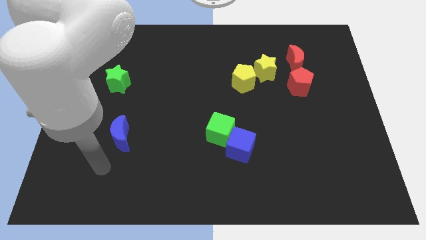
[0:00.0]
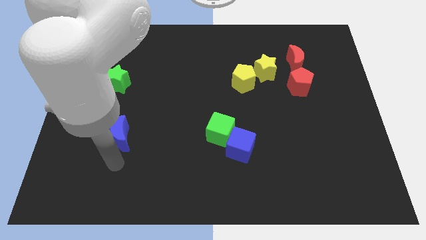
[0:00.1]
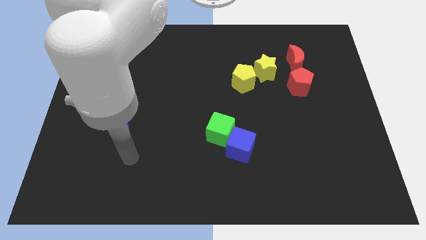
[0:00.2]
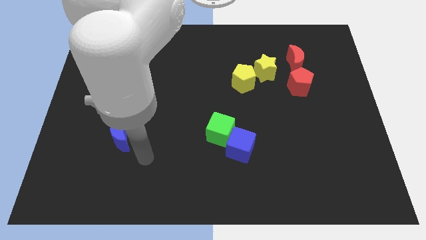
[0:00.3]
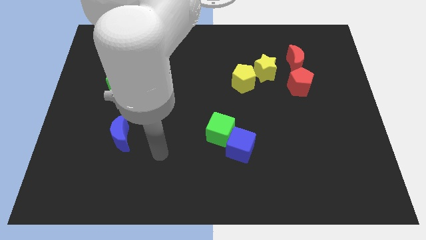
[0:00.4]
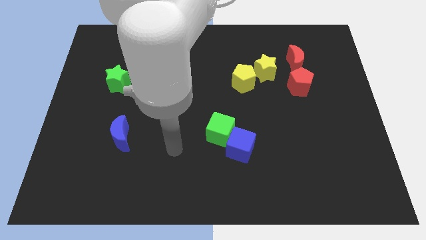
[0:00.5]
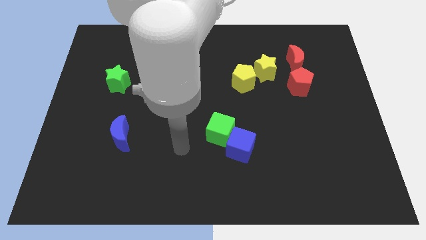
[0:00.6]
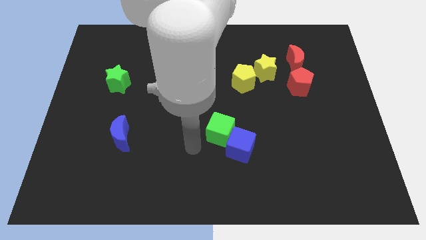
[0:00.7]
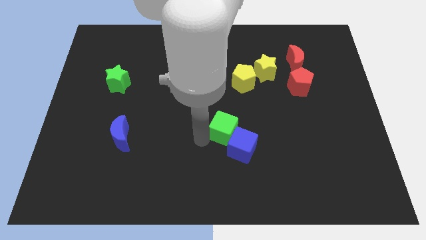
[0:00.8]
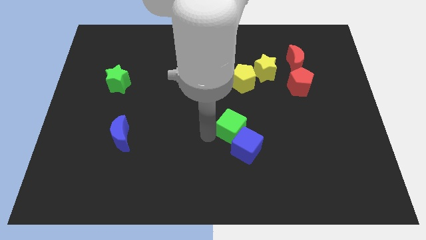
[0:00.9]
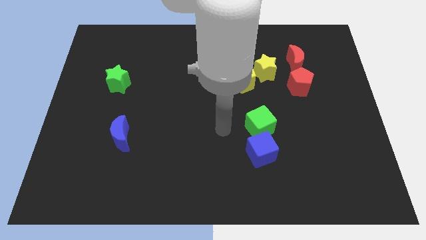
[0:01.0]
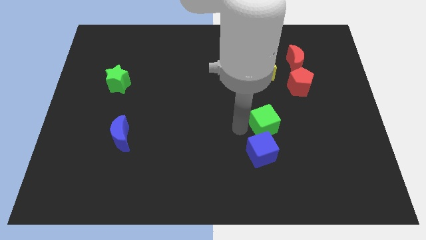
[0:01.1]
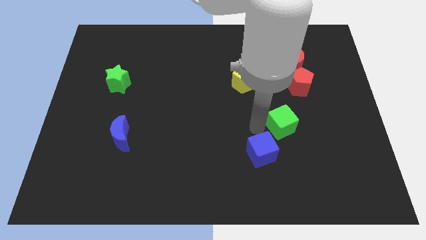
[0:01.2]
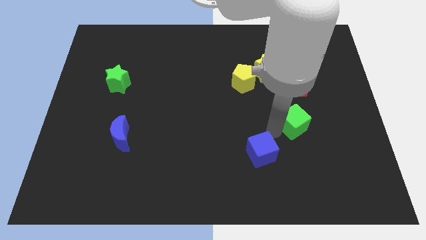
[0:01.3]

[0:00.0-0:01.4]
move the blue cube away from the green cube

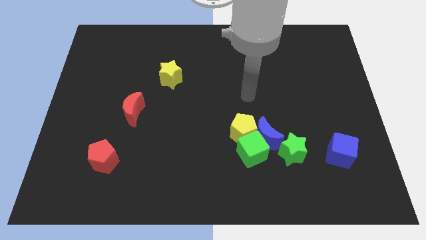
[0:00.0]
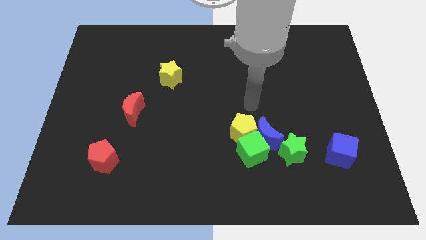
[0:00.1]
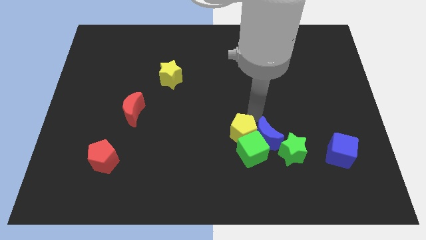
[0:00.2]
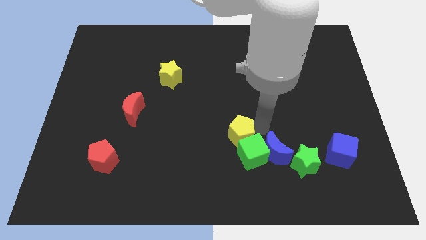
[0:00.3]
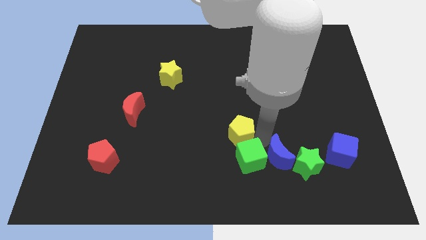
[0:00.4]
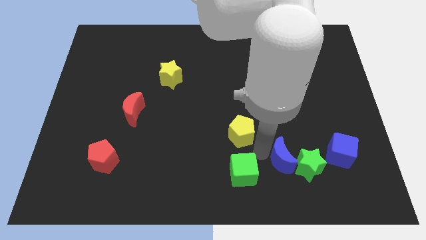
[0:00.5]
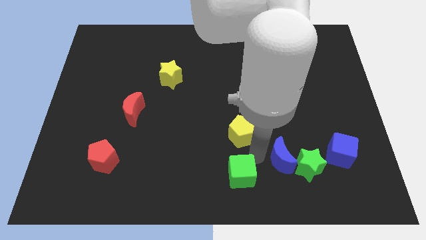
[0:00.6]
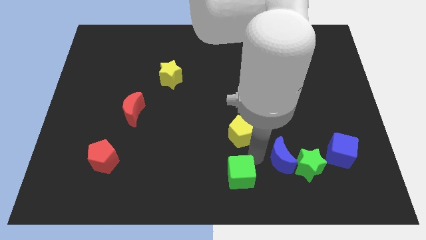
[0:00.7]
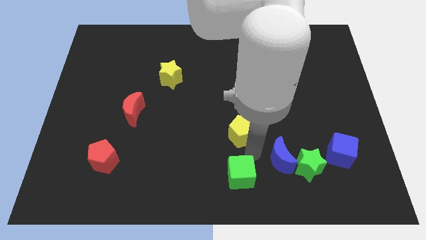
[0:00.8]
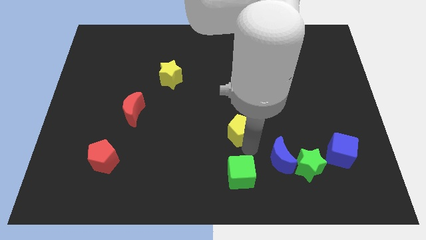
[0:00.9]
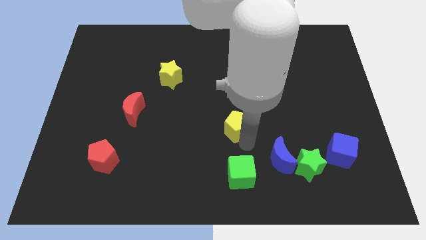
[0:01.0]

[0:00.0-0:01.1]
move the yellow pentagon away from the green cube and blue moon

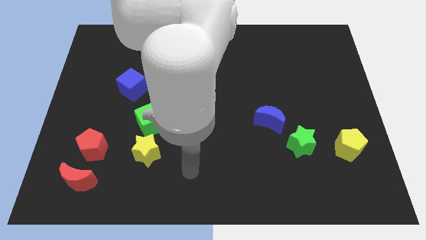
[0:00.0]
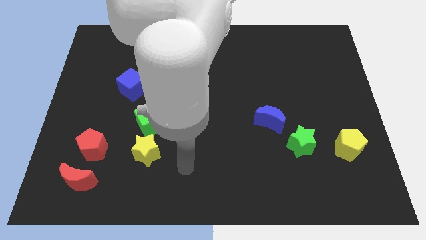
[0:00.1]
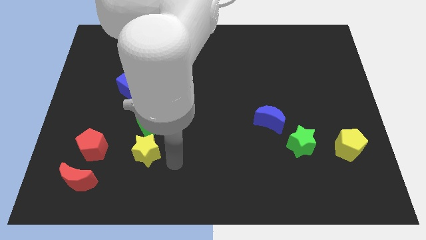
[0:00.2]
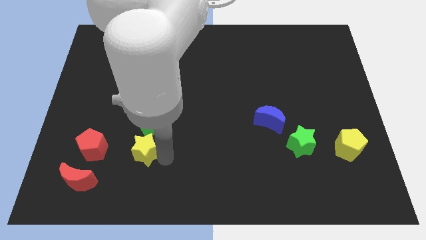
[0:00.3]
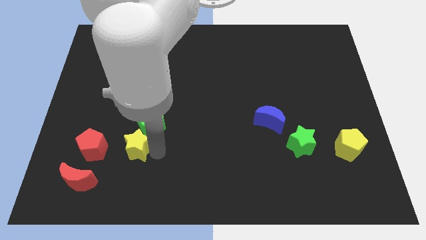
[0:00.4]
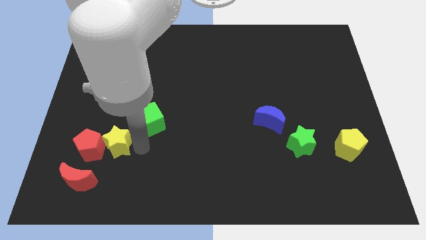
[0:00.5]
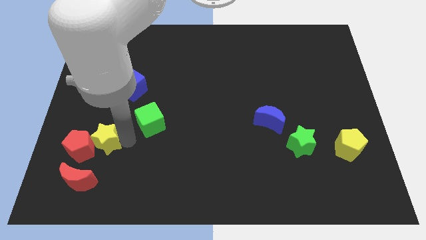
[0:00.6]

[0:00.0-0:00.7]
pull the green cube apart from the yellow star

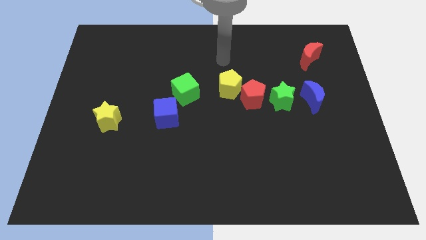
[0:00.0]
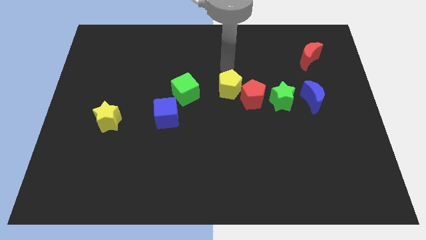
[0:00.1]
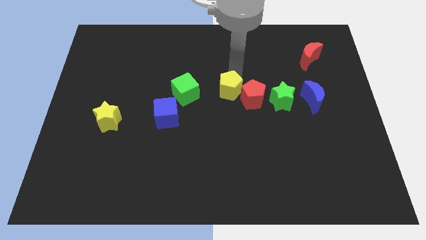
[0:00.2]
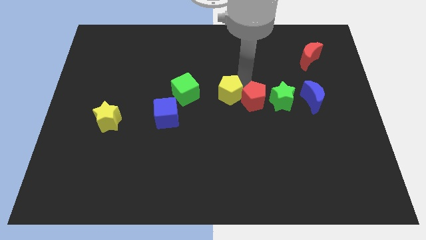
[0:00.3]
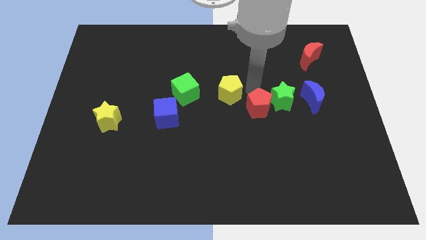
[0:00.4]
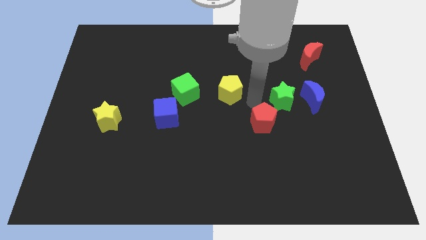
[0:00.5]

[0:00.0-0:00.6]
pull the yellow pentagon apart from the red pentagon

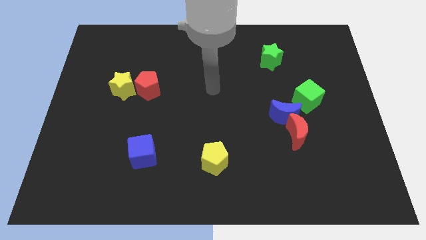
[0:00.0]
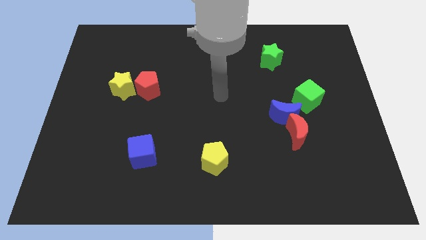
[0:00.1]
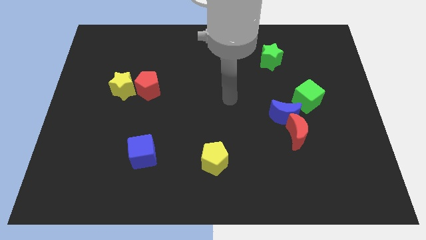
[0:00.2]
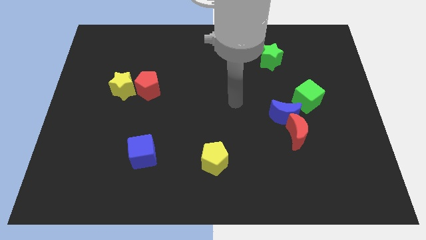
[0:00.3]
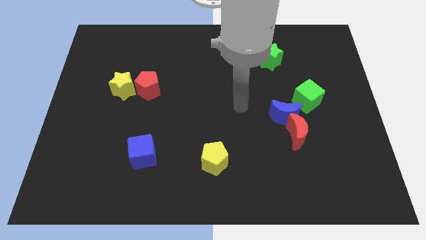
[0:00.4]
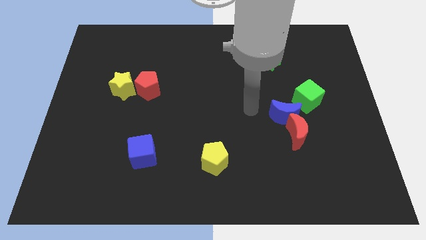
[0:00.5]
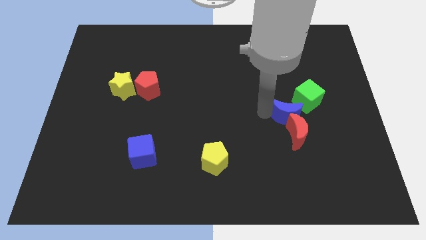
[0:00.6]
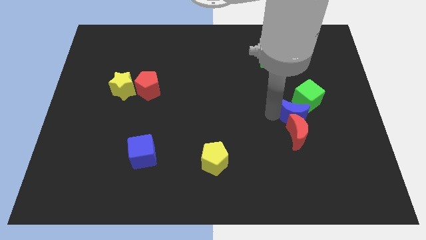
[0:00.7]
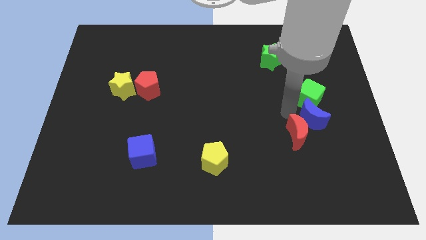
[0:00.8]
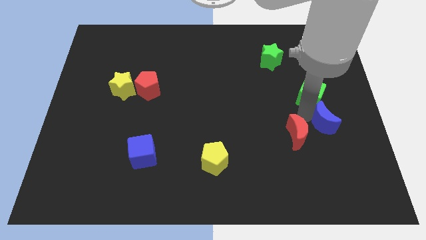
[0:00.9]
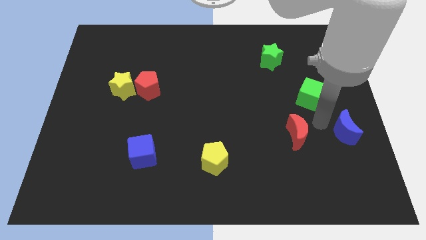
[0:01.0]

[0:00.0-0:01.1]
pull the red moon apart from the blue moon

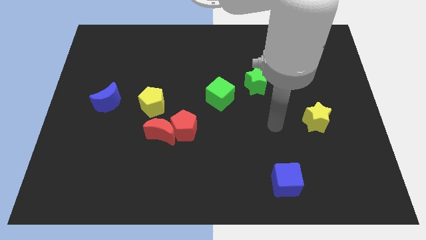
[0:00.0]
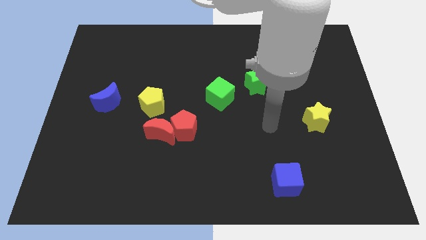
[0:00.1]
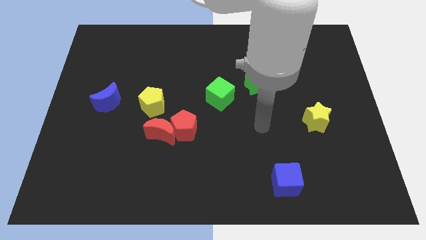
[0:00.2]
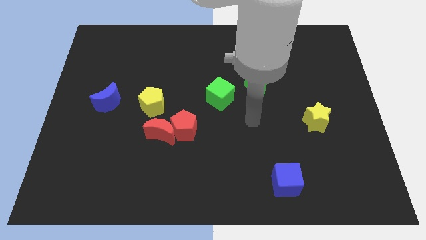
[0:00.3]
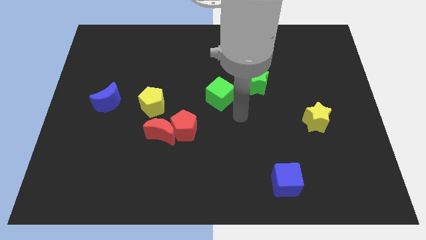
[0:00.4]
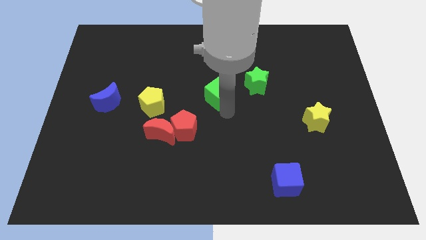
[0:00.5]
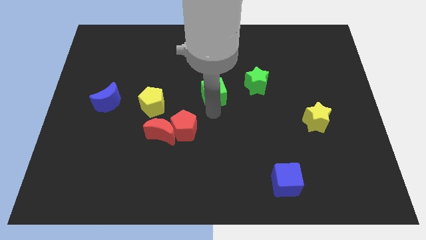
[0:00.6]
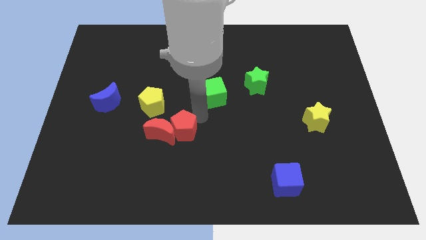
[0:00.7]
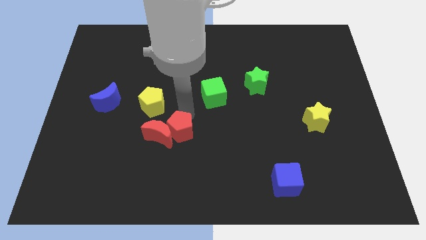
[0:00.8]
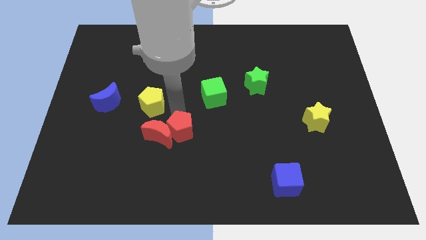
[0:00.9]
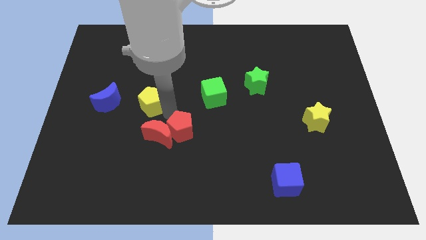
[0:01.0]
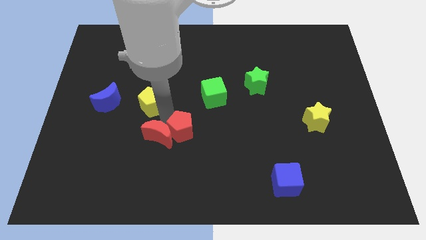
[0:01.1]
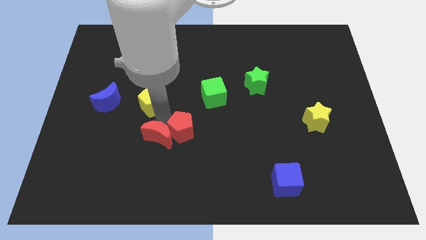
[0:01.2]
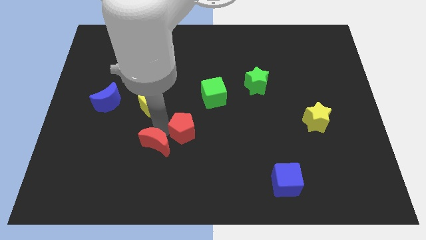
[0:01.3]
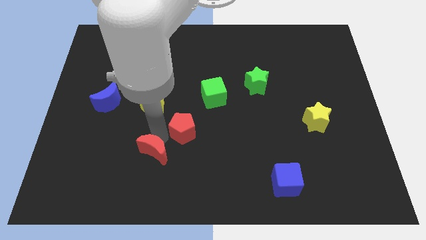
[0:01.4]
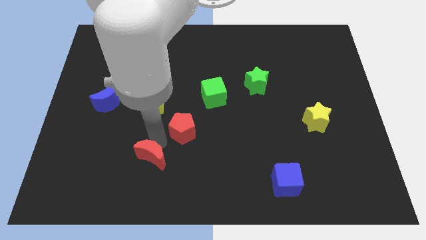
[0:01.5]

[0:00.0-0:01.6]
move the red moon away from the red pentagon and yellow pentagon

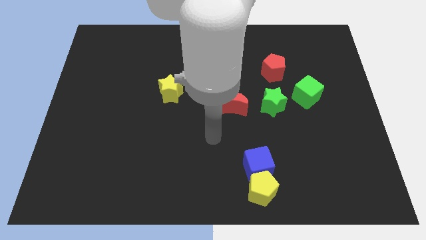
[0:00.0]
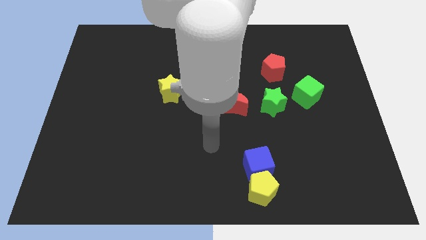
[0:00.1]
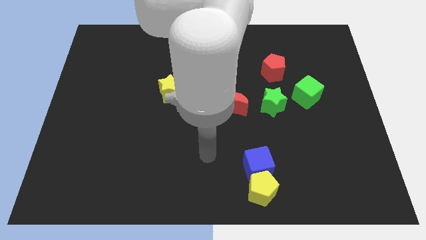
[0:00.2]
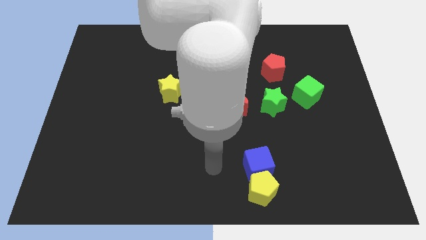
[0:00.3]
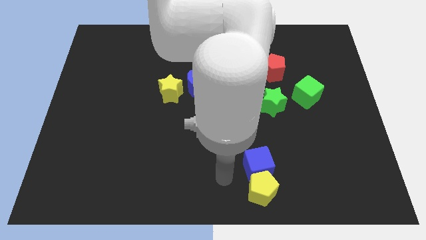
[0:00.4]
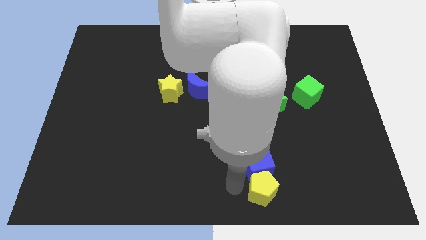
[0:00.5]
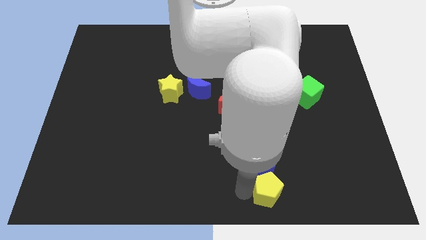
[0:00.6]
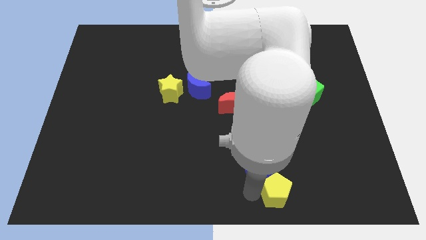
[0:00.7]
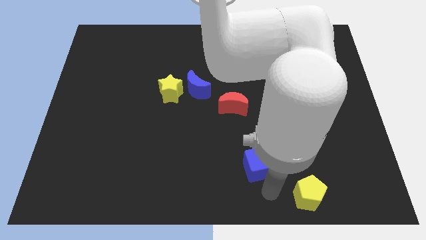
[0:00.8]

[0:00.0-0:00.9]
pull the blue cube apart from the yellow pentagon

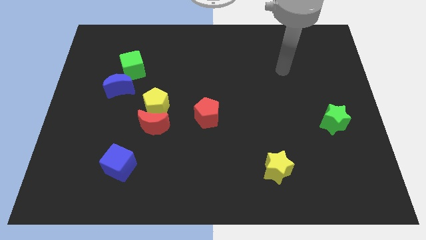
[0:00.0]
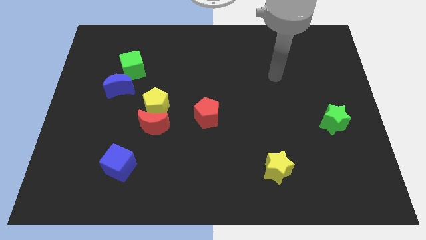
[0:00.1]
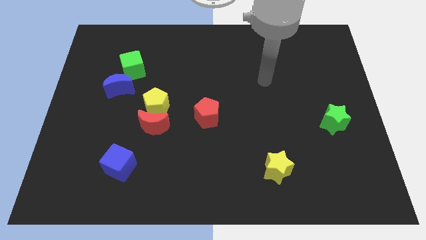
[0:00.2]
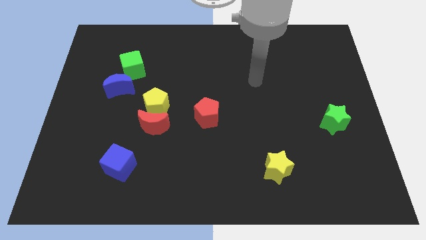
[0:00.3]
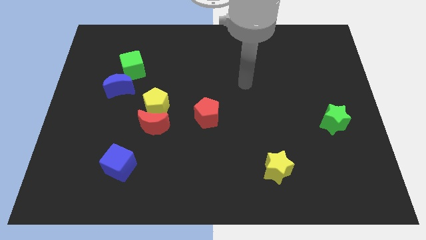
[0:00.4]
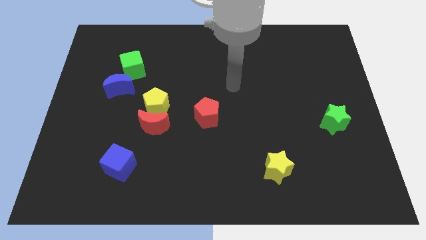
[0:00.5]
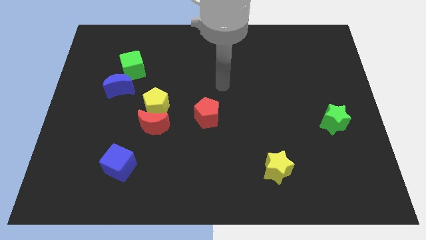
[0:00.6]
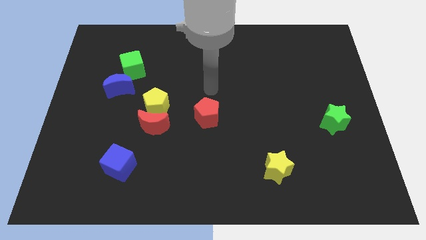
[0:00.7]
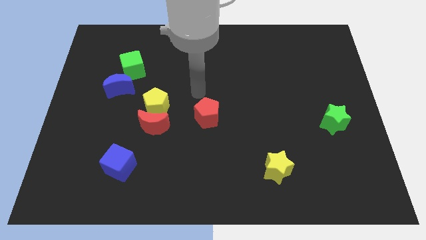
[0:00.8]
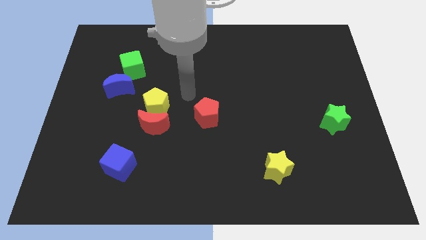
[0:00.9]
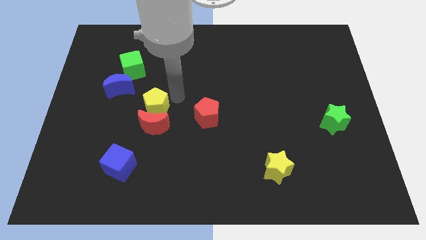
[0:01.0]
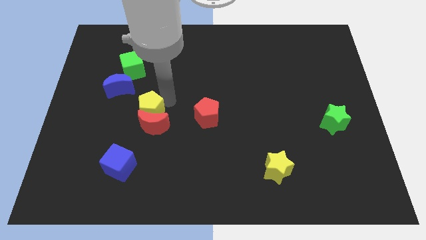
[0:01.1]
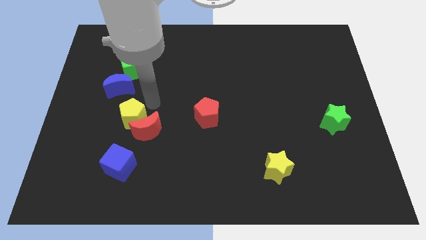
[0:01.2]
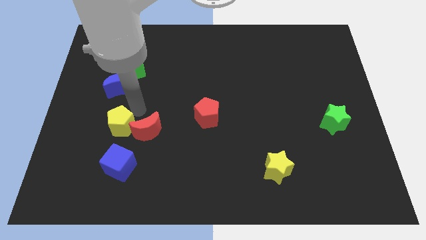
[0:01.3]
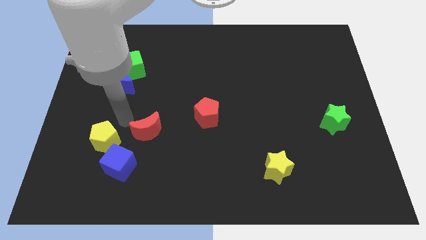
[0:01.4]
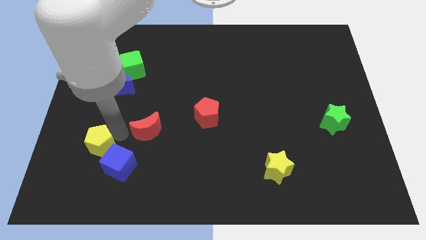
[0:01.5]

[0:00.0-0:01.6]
move the red moon away from the yellow pentagon

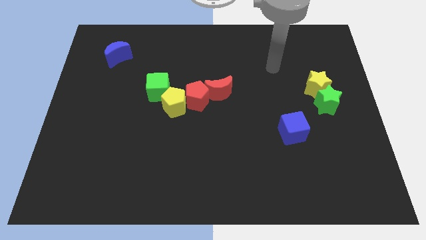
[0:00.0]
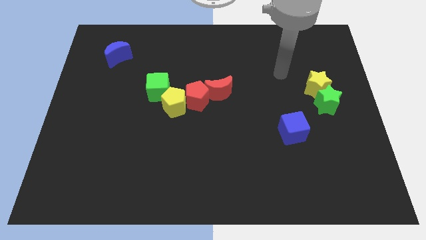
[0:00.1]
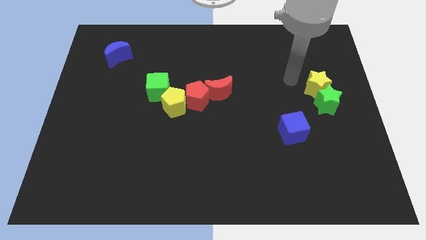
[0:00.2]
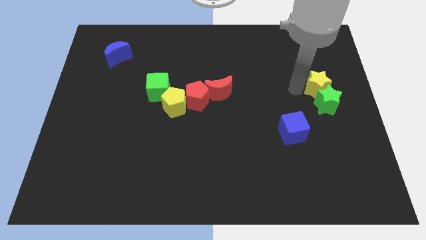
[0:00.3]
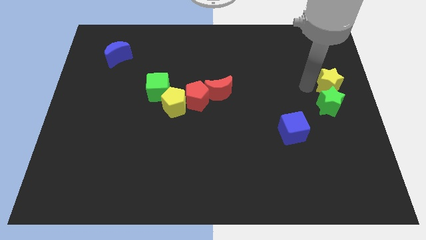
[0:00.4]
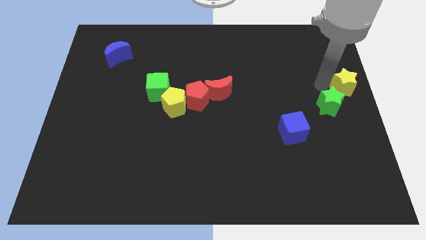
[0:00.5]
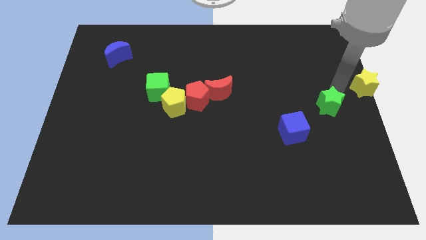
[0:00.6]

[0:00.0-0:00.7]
separate the green star from the yellow star
